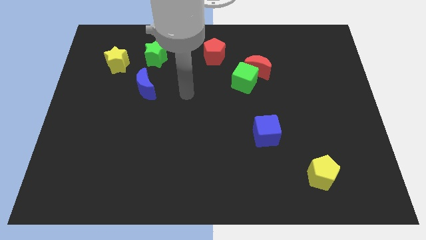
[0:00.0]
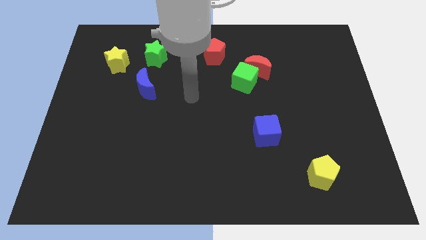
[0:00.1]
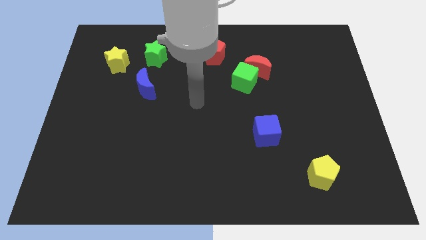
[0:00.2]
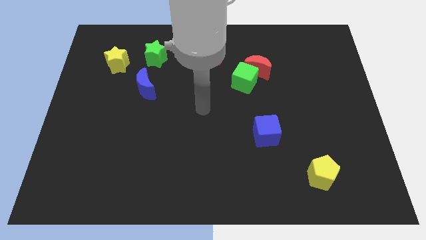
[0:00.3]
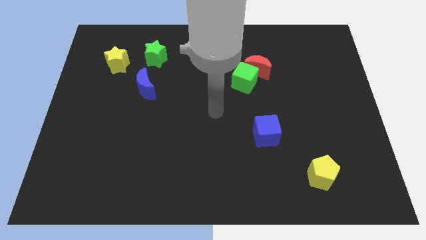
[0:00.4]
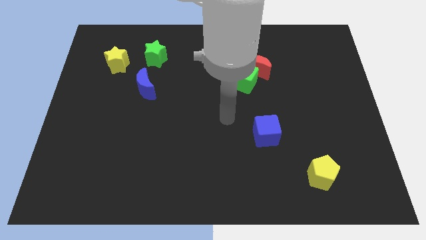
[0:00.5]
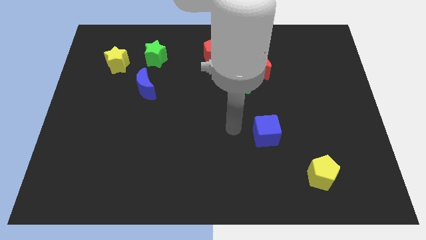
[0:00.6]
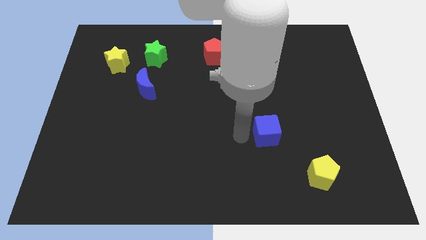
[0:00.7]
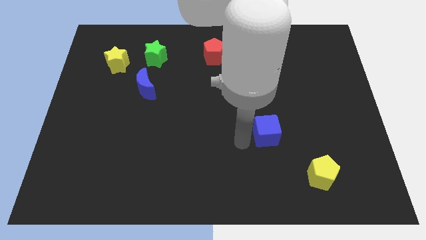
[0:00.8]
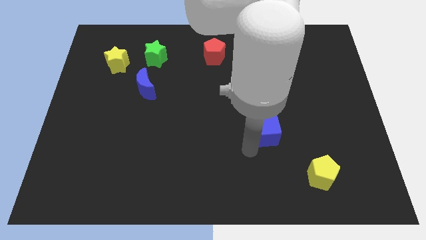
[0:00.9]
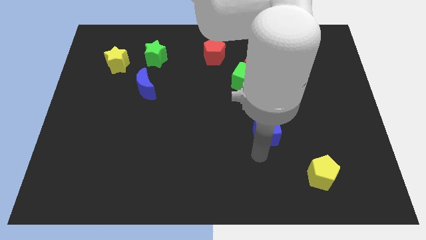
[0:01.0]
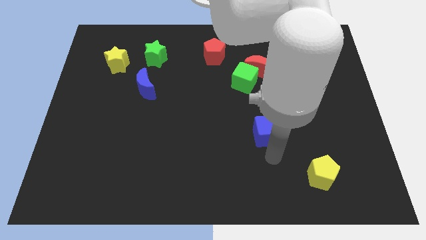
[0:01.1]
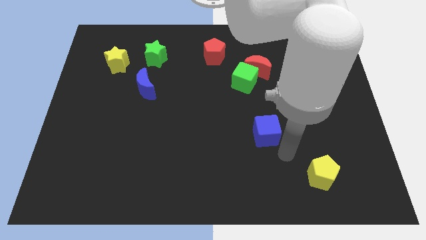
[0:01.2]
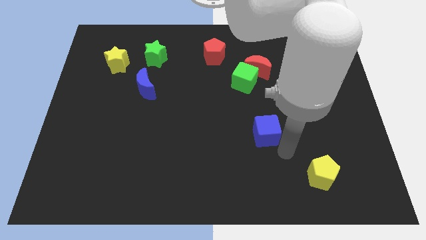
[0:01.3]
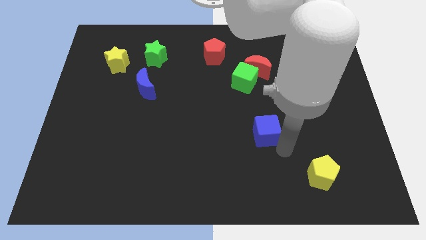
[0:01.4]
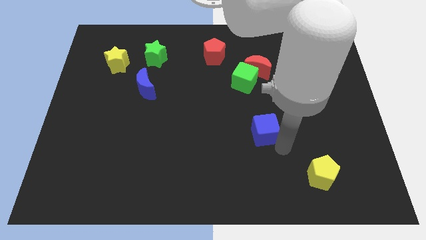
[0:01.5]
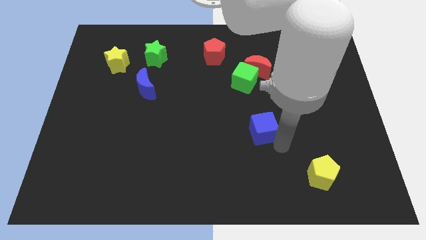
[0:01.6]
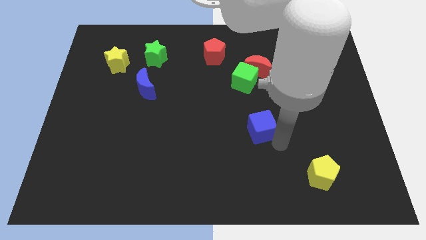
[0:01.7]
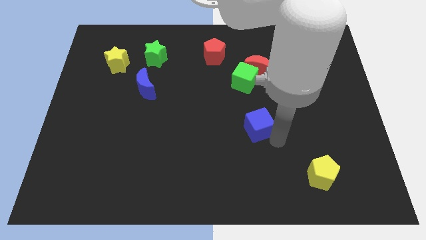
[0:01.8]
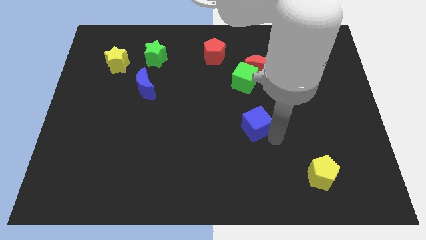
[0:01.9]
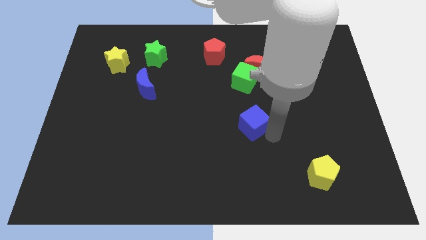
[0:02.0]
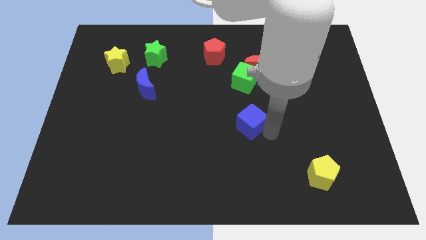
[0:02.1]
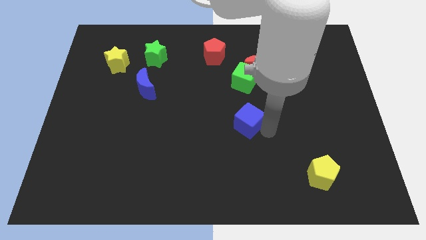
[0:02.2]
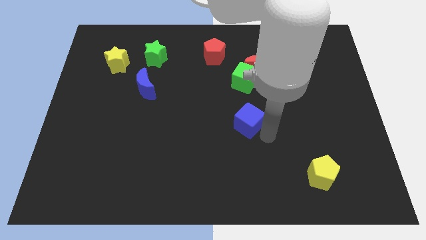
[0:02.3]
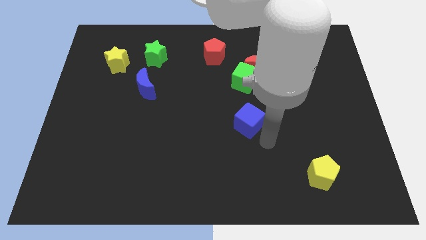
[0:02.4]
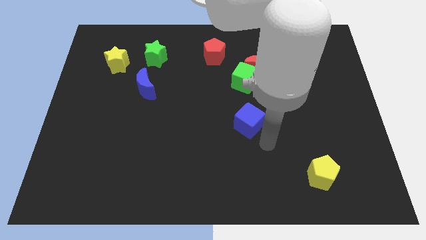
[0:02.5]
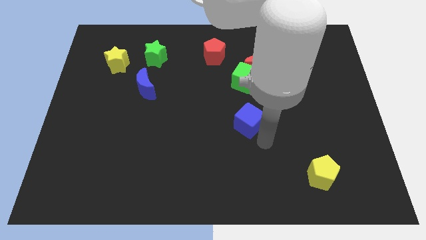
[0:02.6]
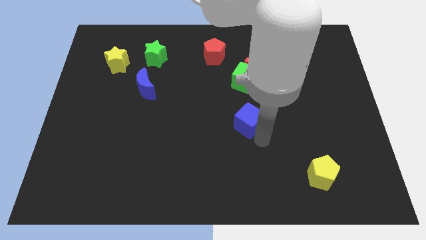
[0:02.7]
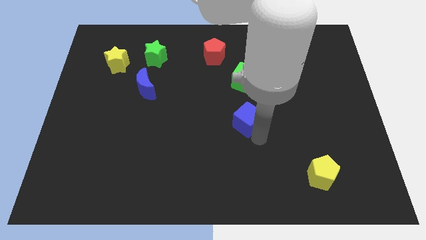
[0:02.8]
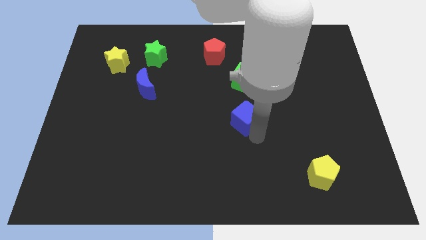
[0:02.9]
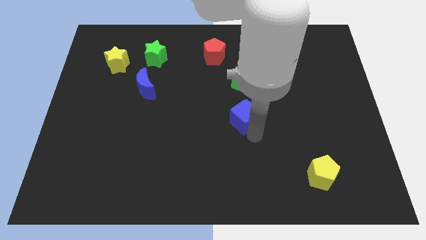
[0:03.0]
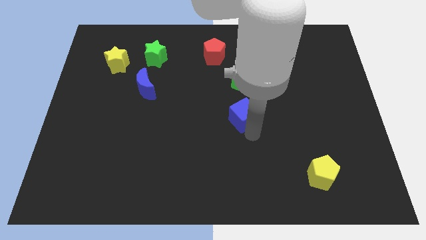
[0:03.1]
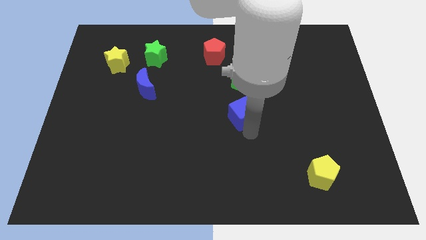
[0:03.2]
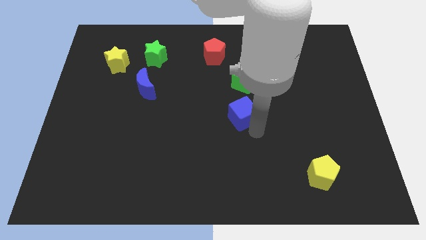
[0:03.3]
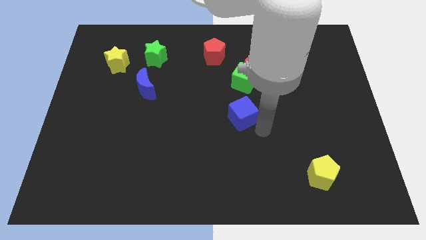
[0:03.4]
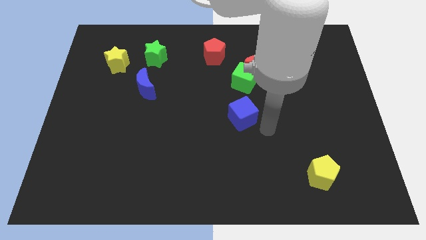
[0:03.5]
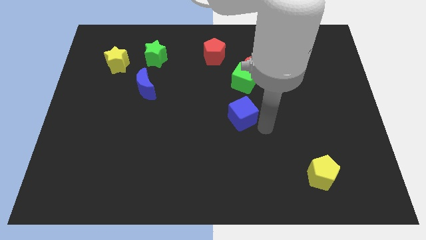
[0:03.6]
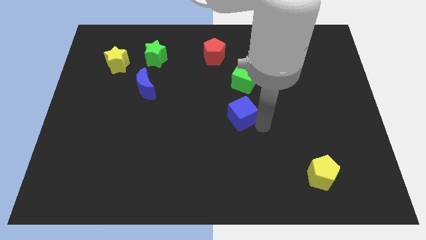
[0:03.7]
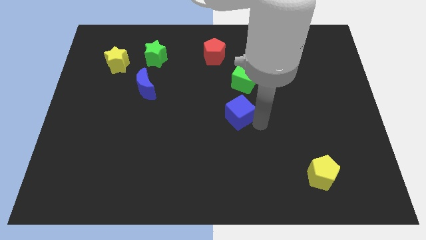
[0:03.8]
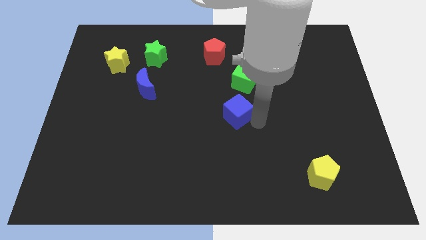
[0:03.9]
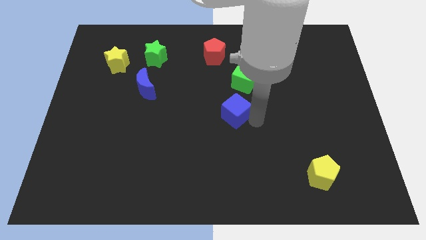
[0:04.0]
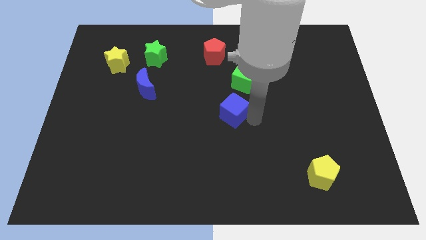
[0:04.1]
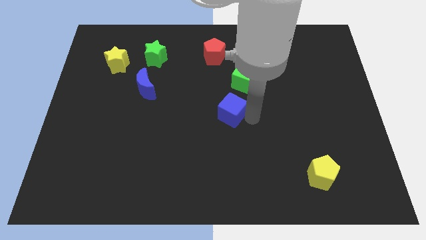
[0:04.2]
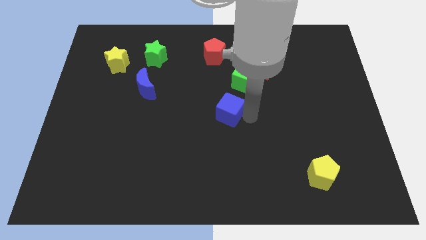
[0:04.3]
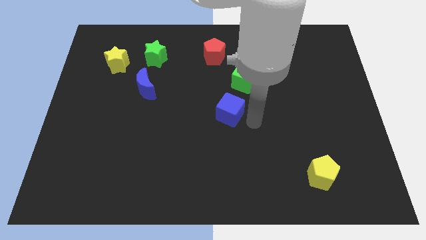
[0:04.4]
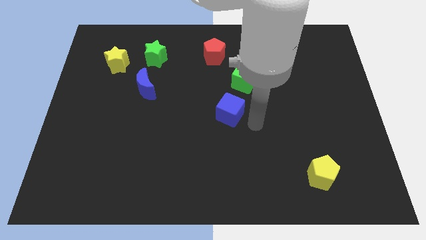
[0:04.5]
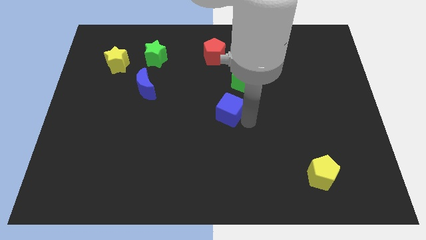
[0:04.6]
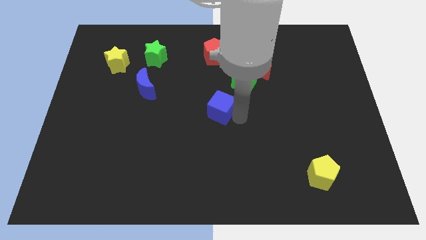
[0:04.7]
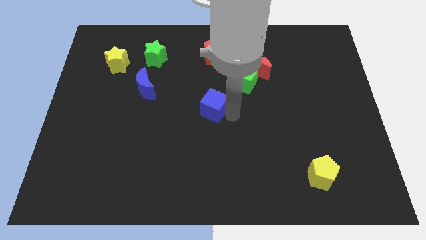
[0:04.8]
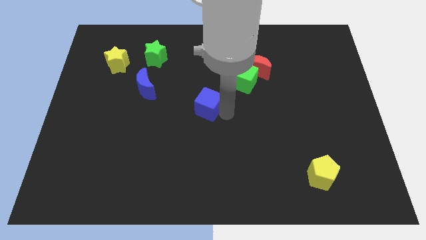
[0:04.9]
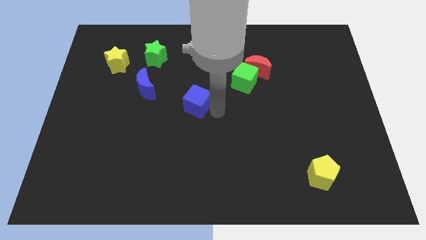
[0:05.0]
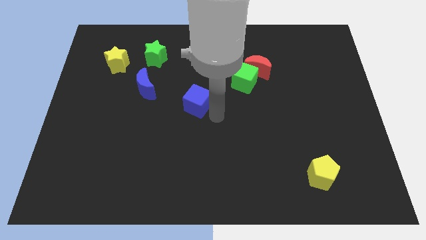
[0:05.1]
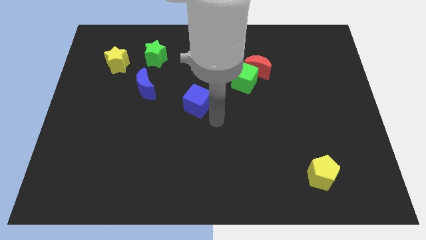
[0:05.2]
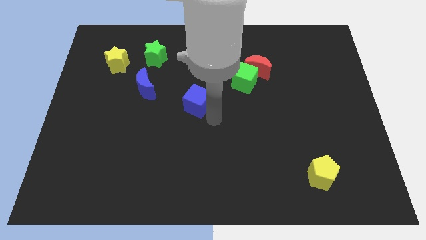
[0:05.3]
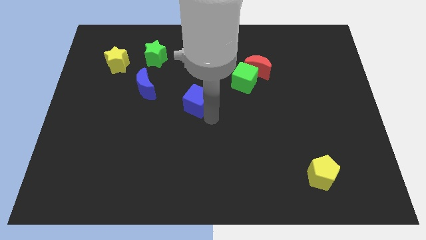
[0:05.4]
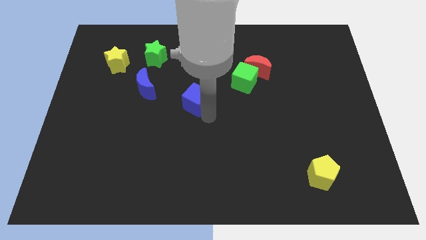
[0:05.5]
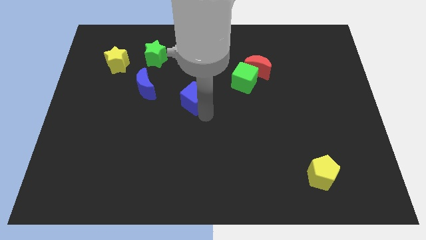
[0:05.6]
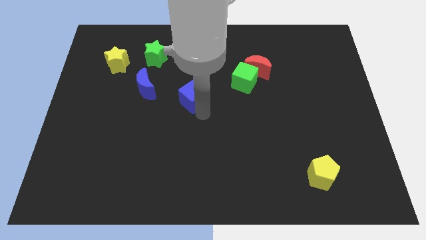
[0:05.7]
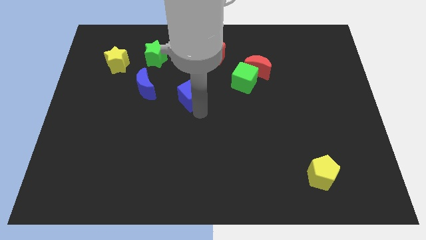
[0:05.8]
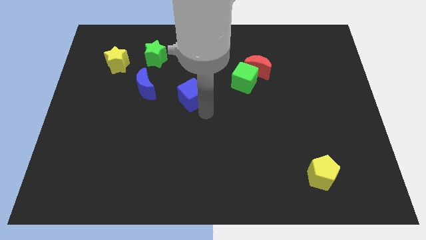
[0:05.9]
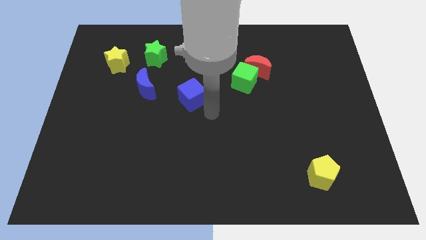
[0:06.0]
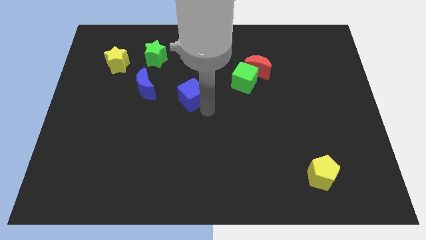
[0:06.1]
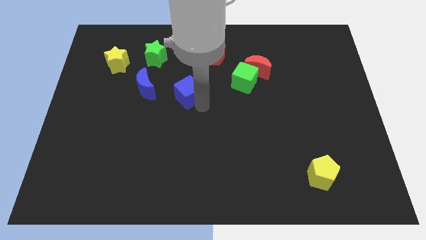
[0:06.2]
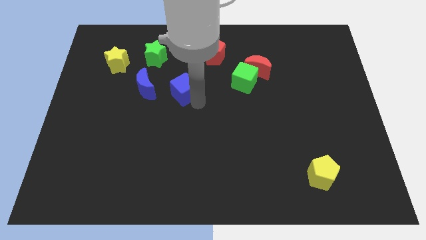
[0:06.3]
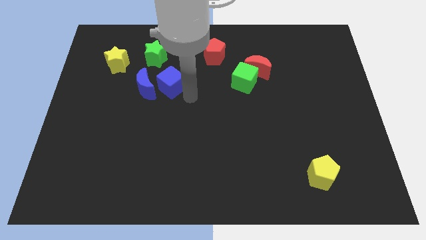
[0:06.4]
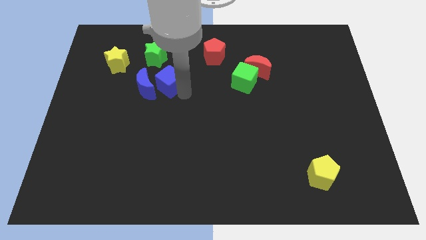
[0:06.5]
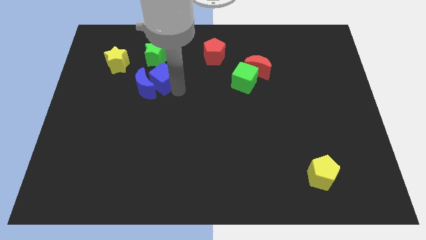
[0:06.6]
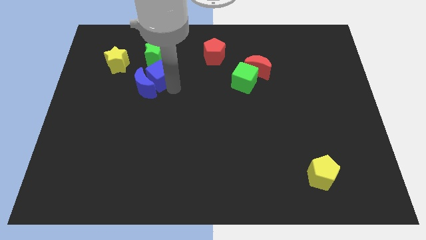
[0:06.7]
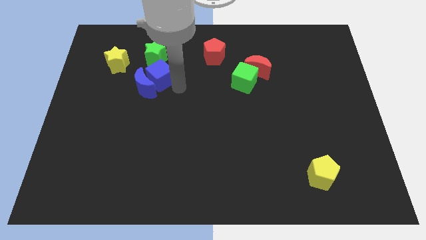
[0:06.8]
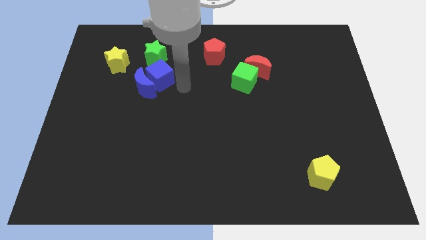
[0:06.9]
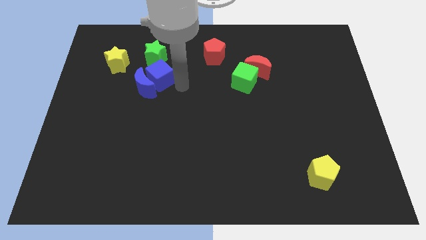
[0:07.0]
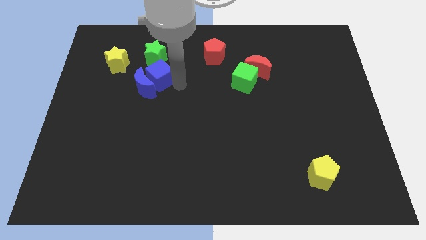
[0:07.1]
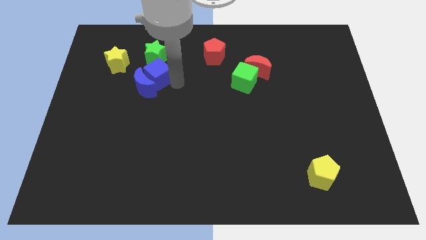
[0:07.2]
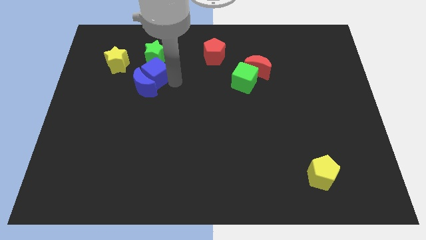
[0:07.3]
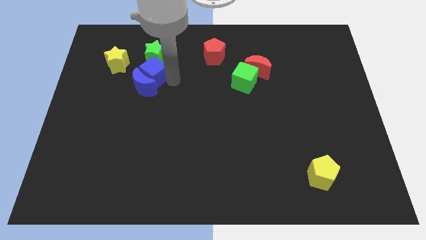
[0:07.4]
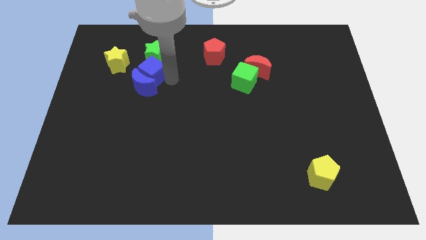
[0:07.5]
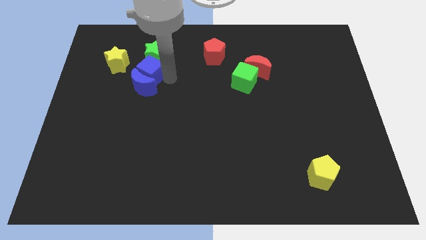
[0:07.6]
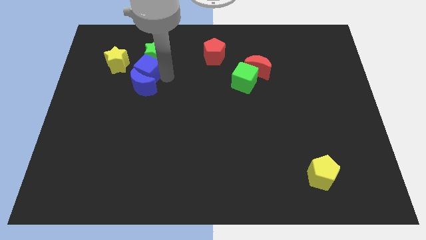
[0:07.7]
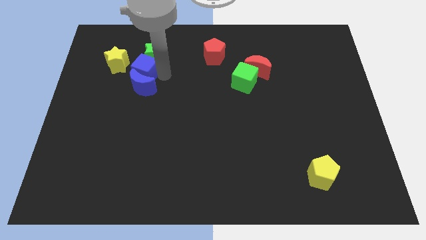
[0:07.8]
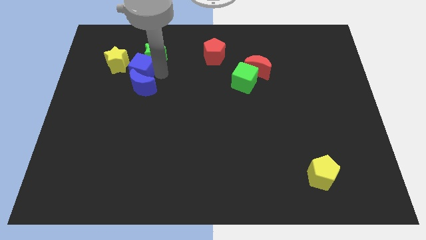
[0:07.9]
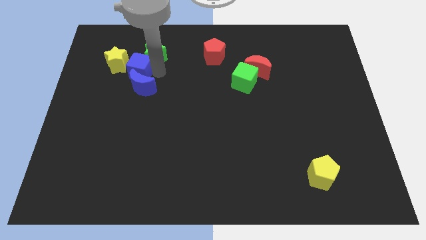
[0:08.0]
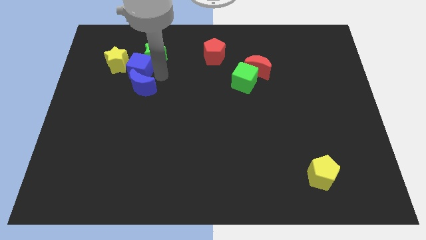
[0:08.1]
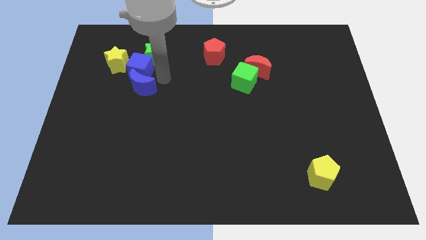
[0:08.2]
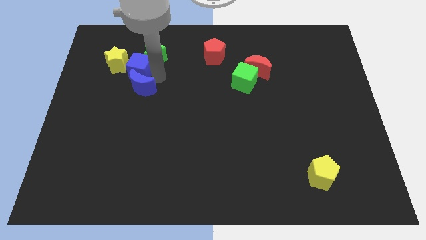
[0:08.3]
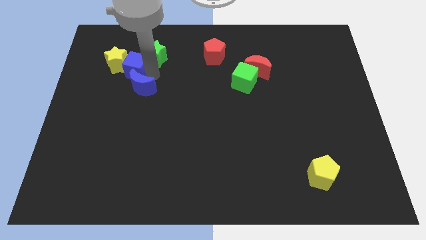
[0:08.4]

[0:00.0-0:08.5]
move the blue cube close to the yellow star

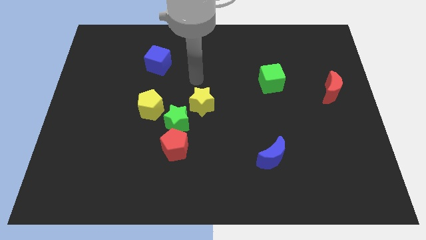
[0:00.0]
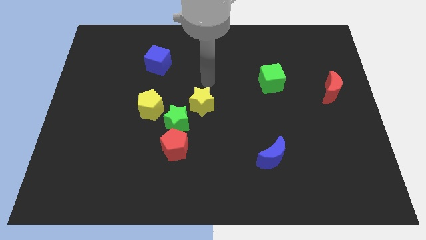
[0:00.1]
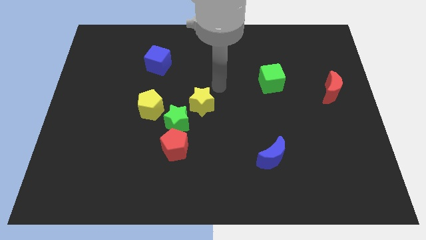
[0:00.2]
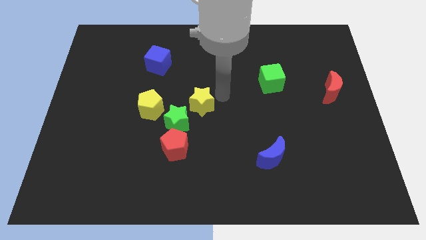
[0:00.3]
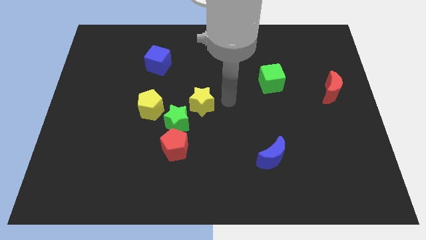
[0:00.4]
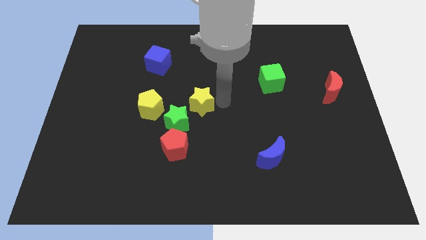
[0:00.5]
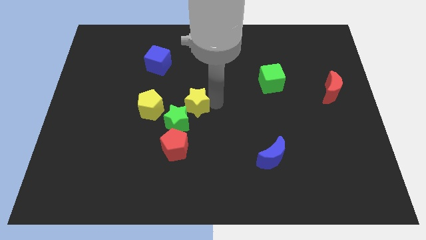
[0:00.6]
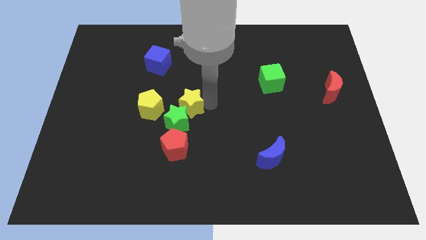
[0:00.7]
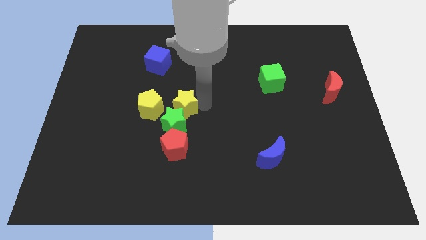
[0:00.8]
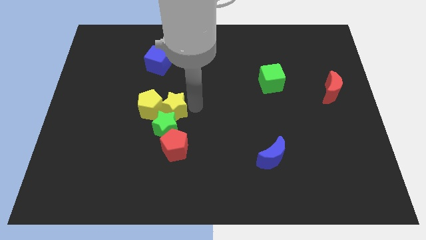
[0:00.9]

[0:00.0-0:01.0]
put the yellow star close to the yellow pentagon
